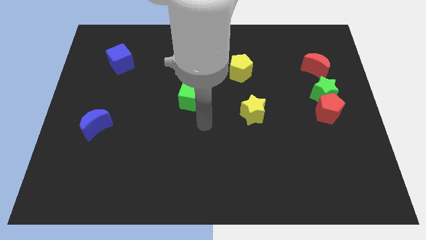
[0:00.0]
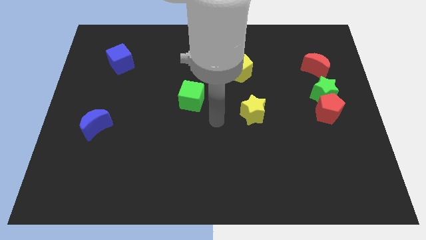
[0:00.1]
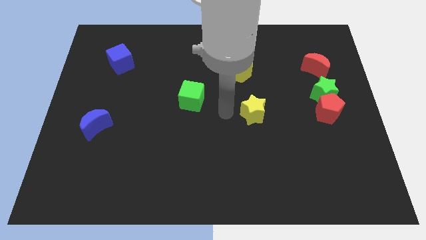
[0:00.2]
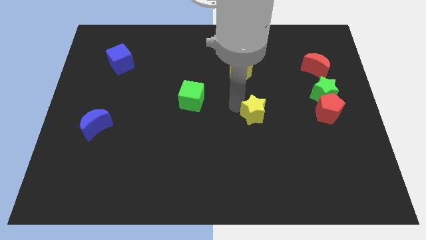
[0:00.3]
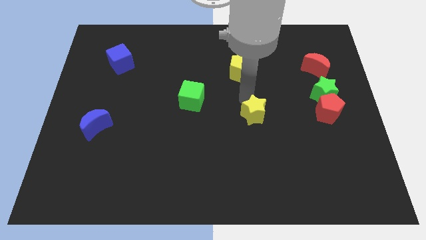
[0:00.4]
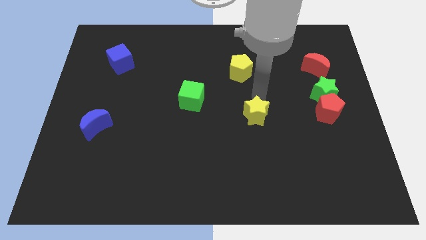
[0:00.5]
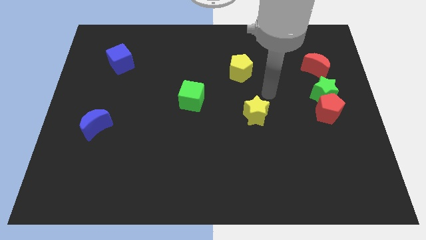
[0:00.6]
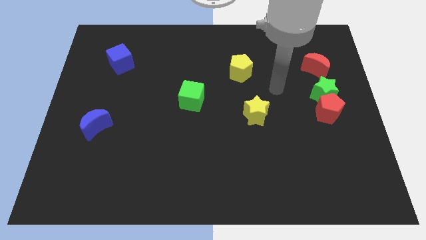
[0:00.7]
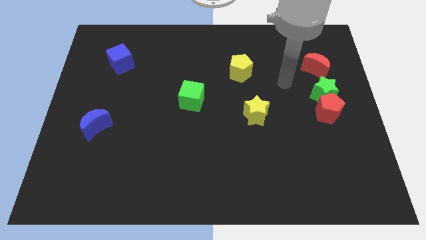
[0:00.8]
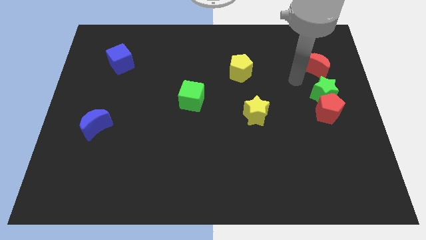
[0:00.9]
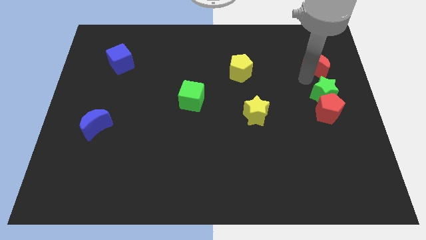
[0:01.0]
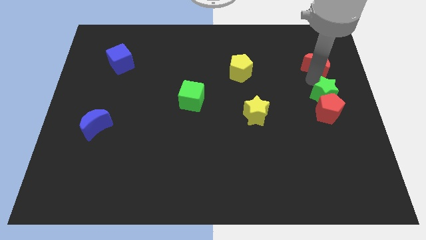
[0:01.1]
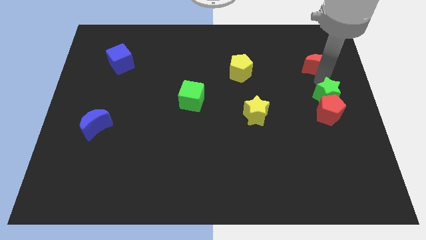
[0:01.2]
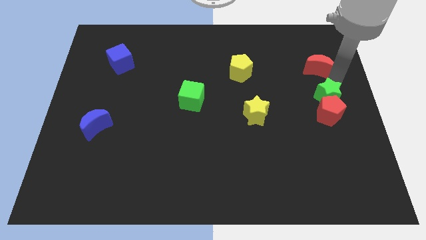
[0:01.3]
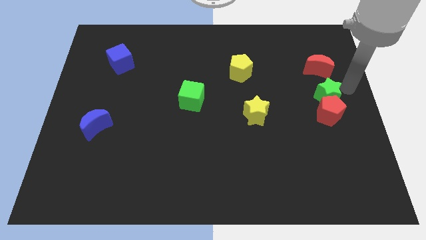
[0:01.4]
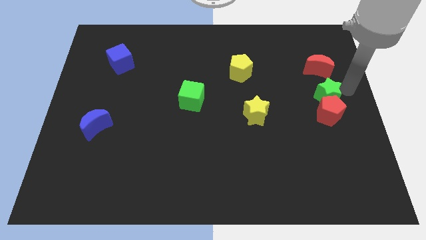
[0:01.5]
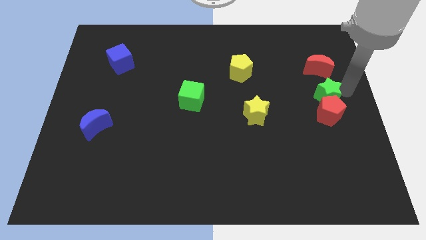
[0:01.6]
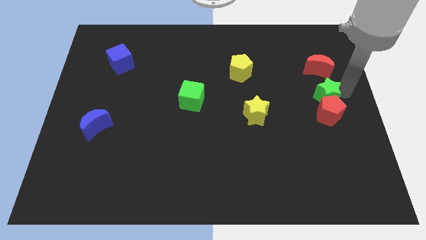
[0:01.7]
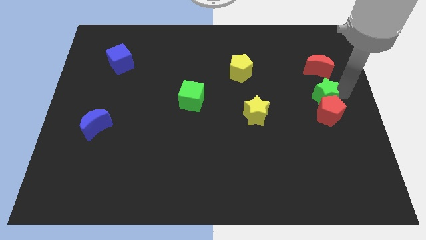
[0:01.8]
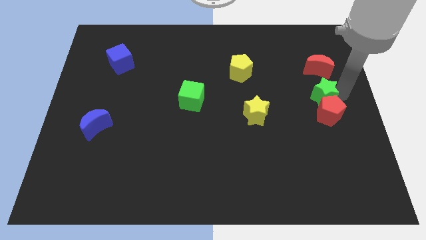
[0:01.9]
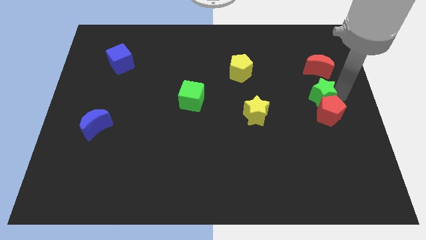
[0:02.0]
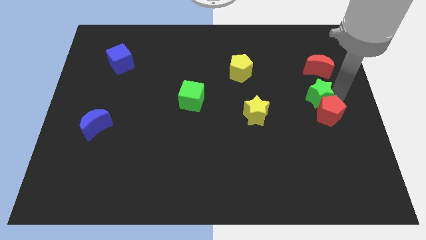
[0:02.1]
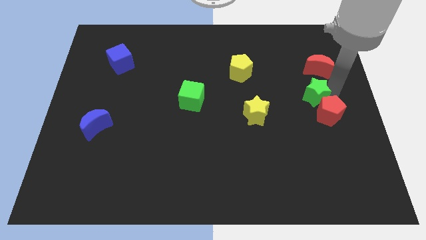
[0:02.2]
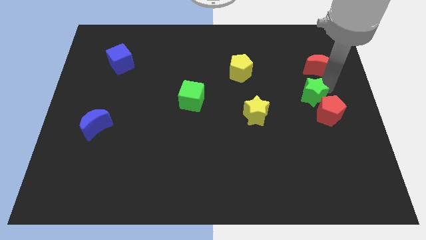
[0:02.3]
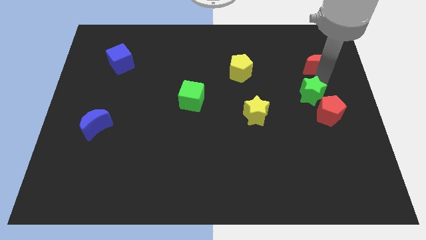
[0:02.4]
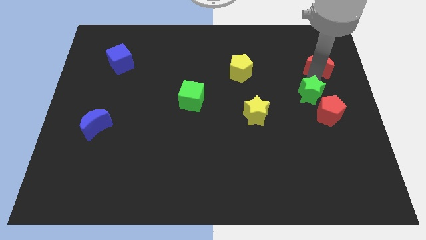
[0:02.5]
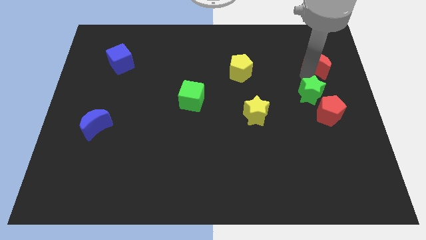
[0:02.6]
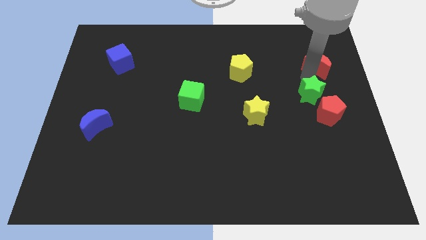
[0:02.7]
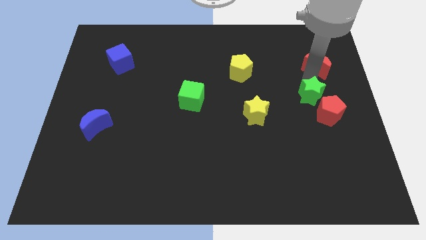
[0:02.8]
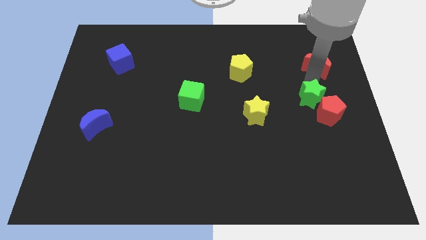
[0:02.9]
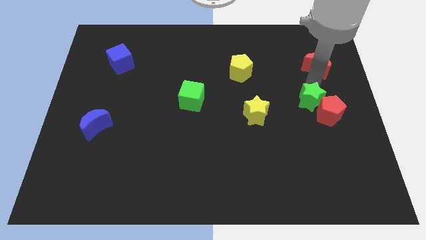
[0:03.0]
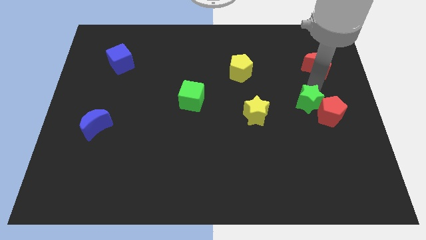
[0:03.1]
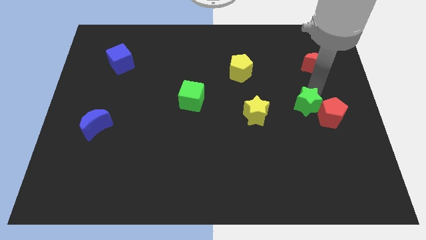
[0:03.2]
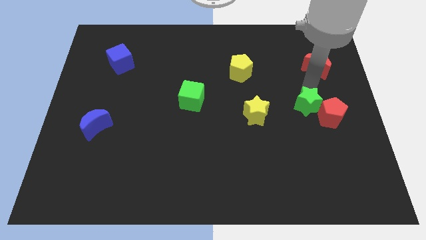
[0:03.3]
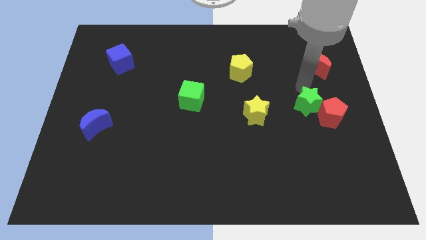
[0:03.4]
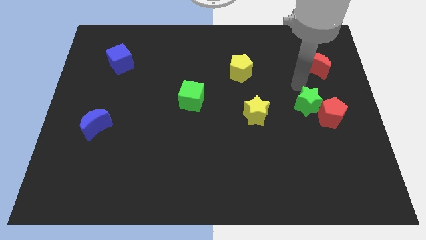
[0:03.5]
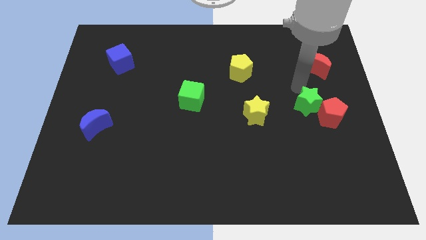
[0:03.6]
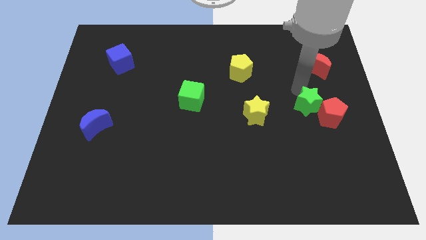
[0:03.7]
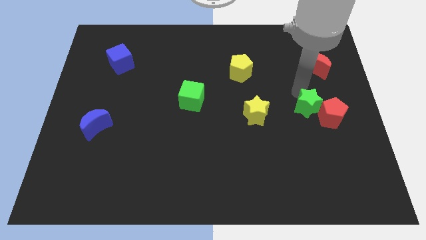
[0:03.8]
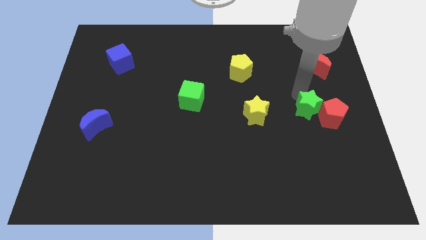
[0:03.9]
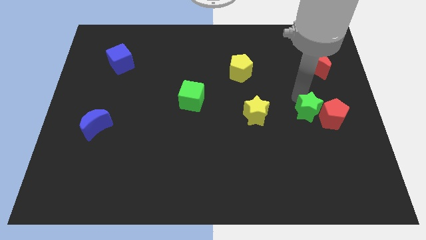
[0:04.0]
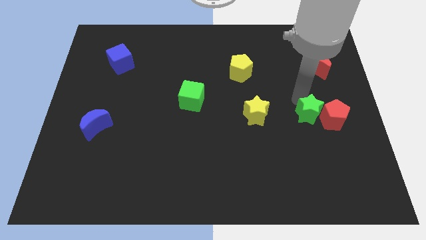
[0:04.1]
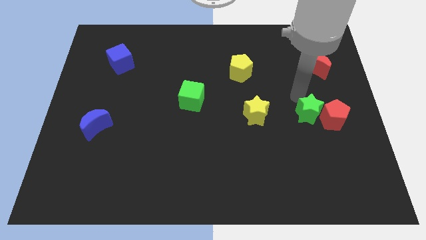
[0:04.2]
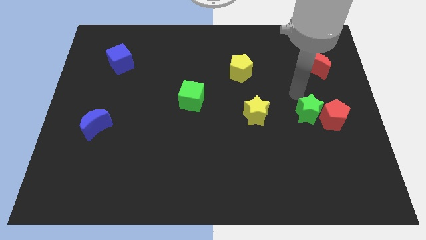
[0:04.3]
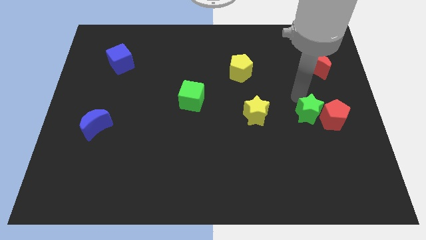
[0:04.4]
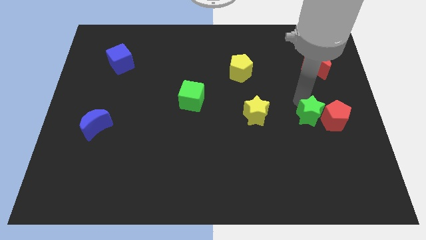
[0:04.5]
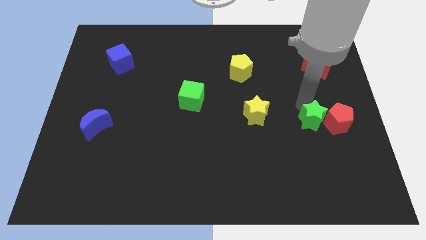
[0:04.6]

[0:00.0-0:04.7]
push the green star somewhat down

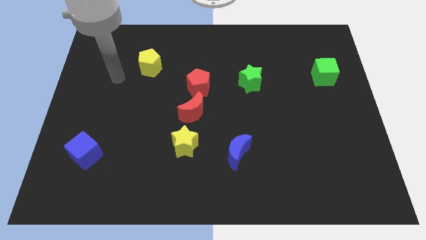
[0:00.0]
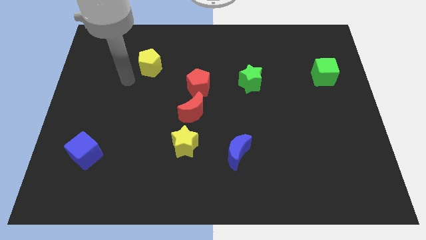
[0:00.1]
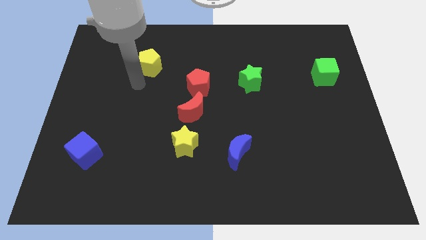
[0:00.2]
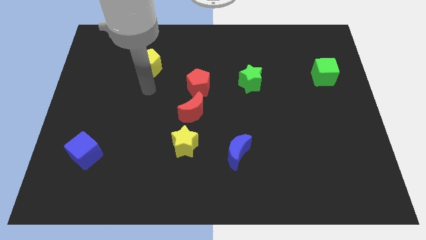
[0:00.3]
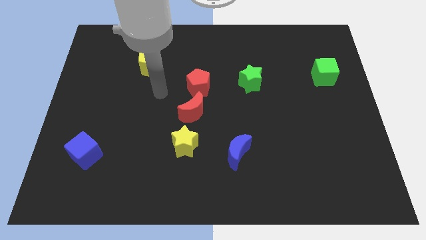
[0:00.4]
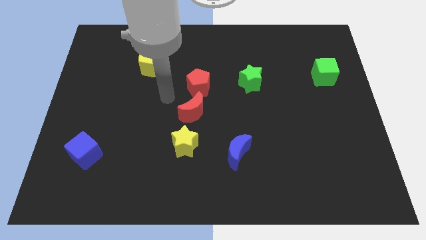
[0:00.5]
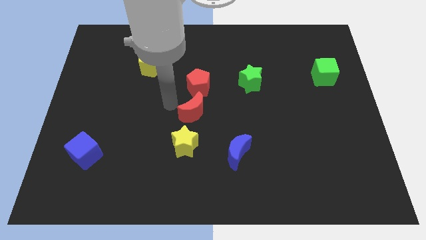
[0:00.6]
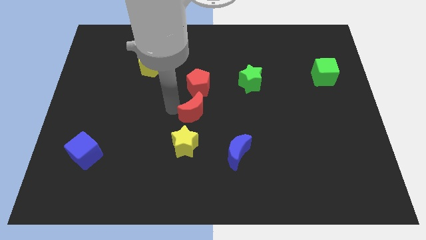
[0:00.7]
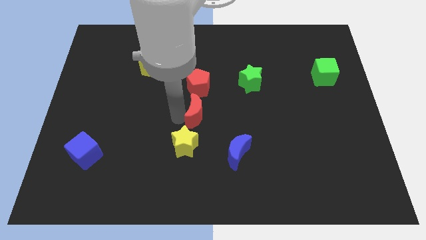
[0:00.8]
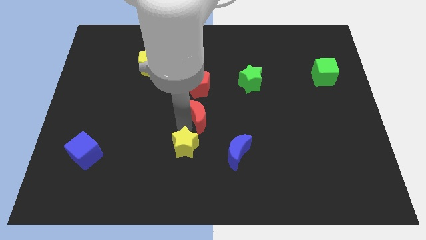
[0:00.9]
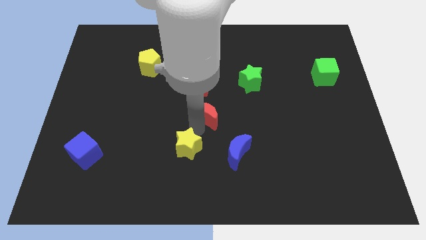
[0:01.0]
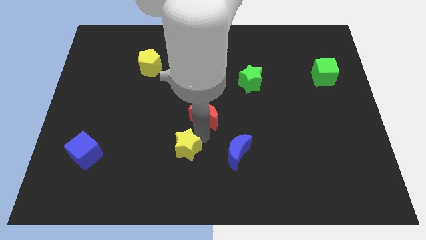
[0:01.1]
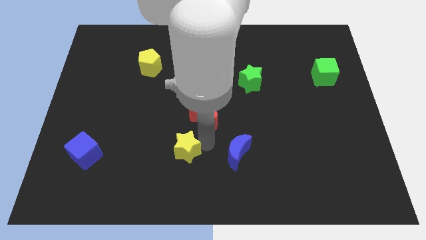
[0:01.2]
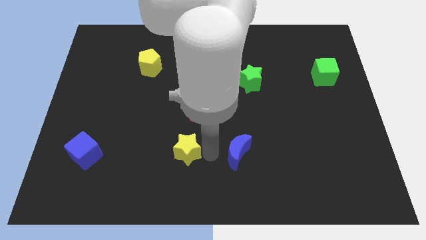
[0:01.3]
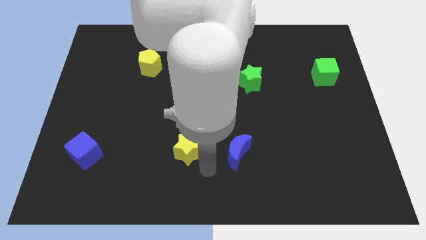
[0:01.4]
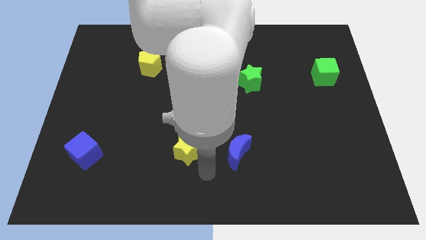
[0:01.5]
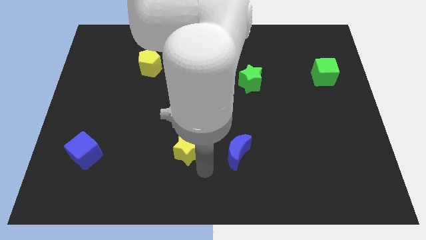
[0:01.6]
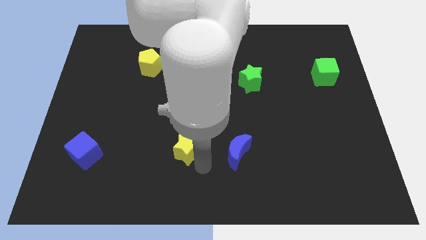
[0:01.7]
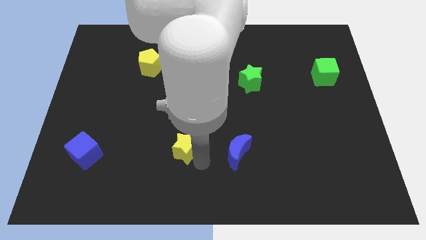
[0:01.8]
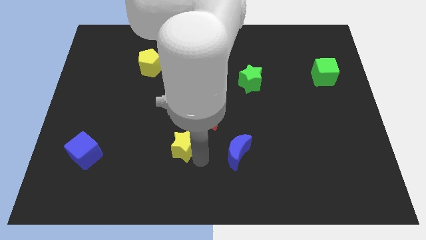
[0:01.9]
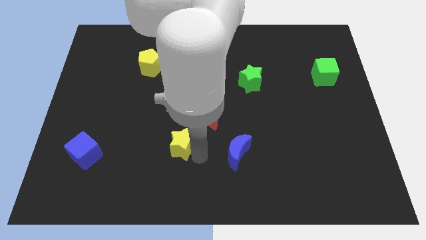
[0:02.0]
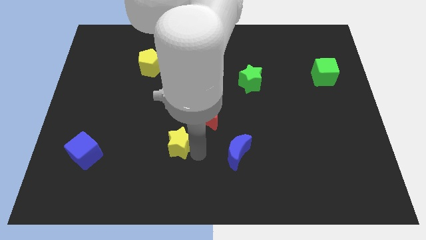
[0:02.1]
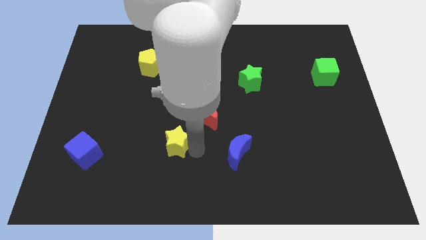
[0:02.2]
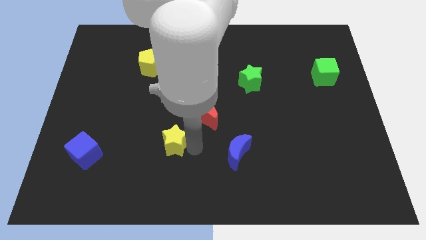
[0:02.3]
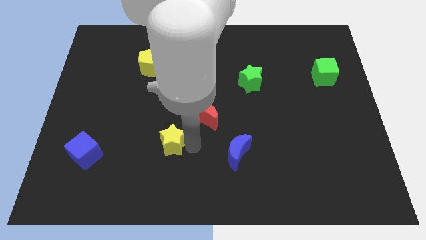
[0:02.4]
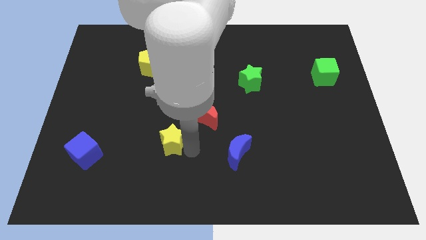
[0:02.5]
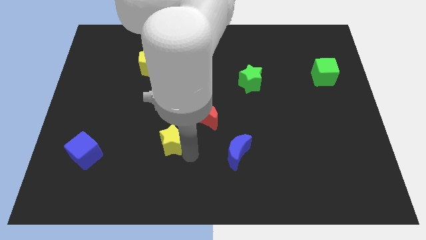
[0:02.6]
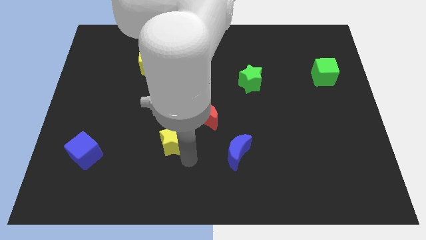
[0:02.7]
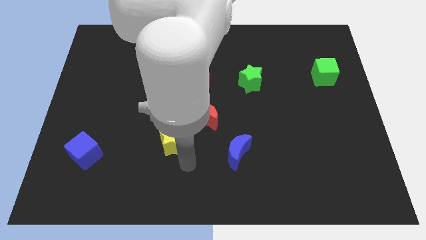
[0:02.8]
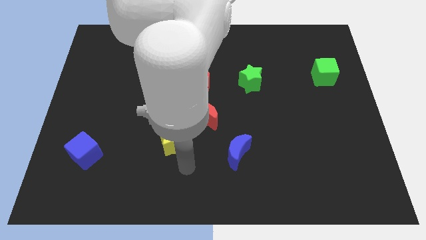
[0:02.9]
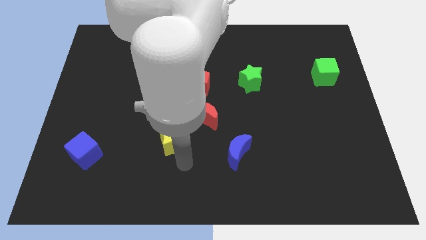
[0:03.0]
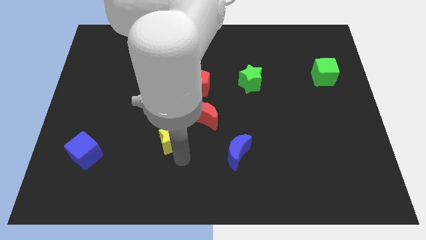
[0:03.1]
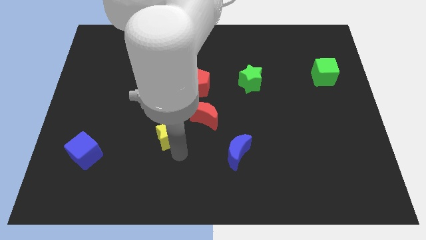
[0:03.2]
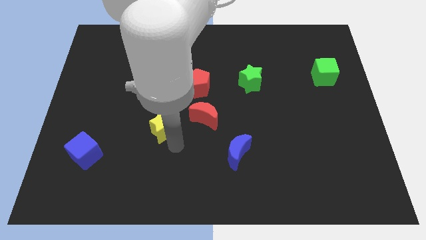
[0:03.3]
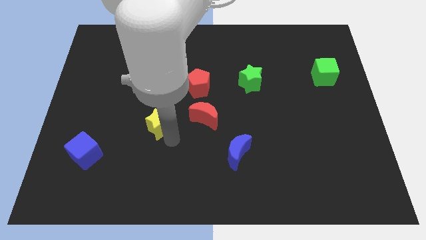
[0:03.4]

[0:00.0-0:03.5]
slide the yellow star upwards and to the left slightly
